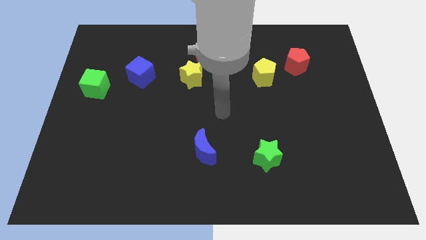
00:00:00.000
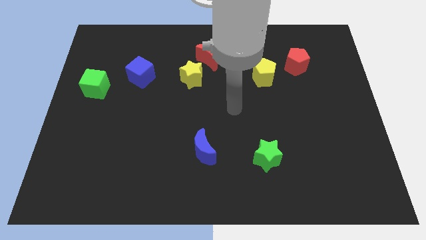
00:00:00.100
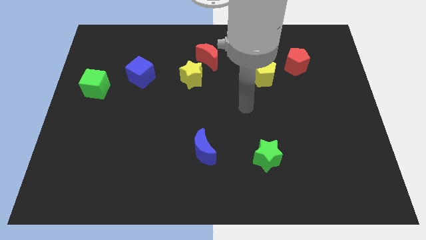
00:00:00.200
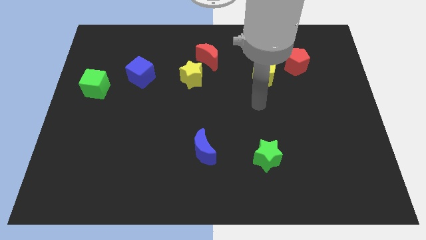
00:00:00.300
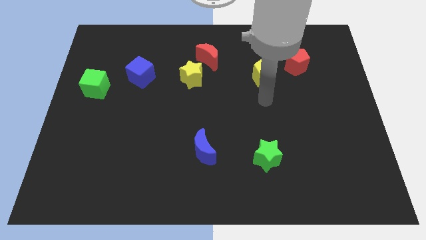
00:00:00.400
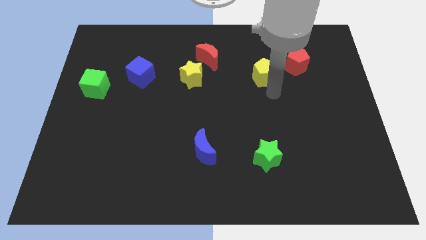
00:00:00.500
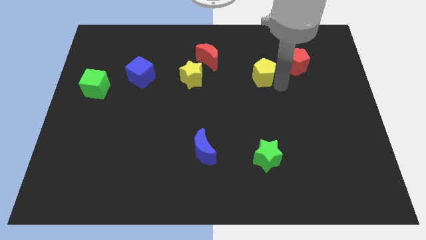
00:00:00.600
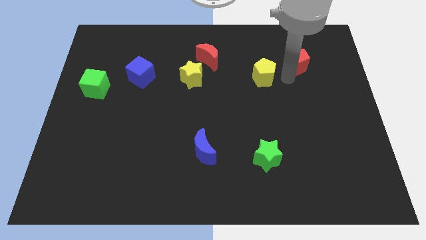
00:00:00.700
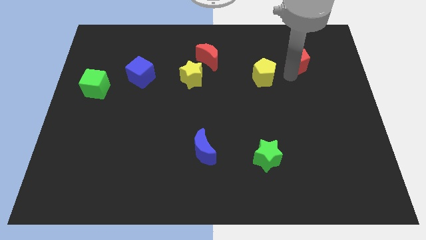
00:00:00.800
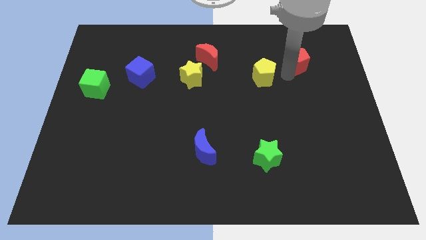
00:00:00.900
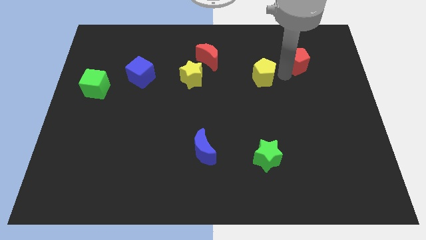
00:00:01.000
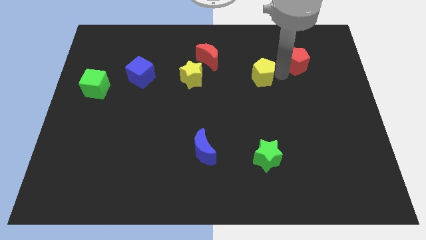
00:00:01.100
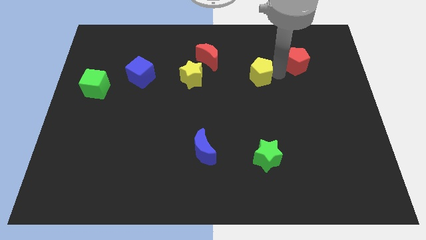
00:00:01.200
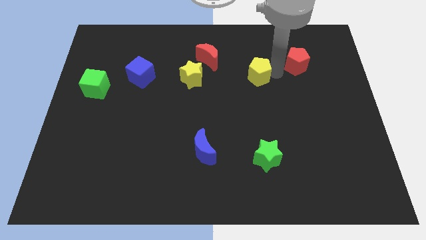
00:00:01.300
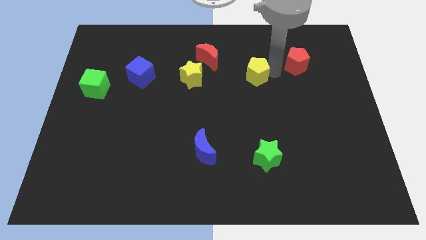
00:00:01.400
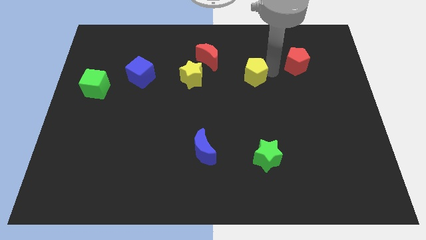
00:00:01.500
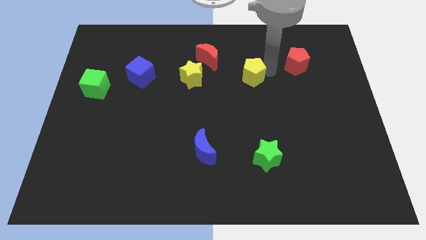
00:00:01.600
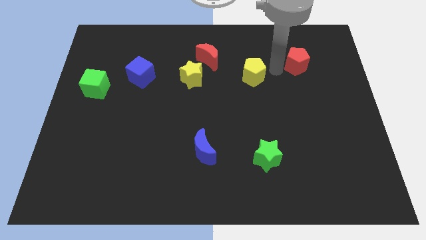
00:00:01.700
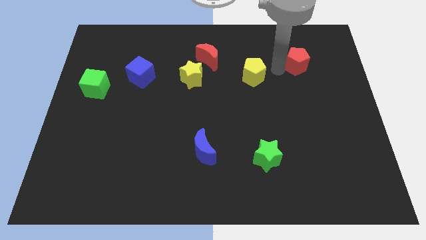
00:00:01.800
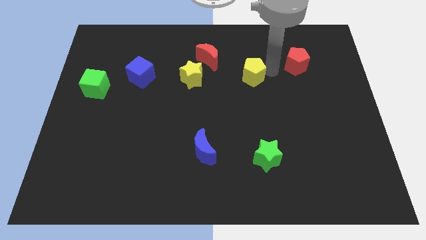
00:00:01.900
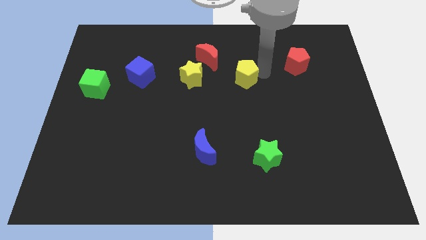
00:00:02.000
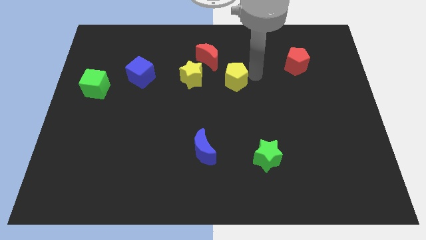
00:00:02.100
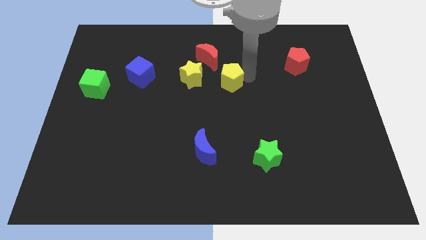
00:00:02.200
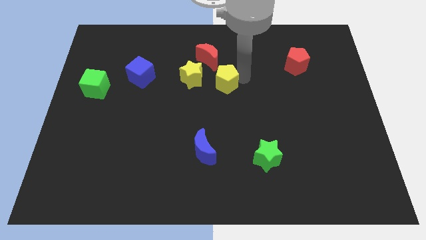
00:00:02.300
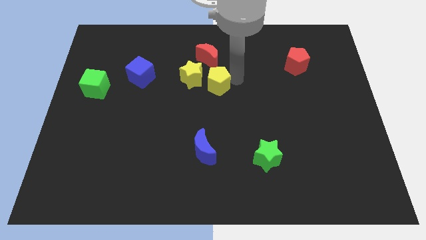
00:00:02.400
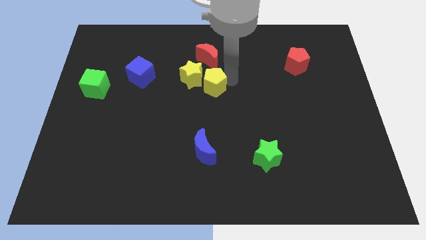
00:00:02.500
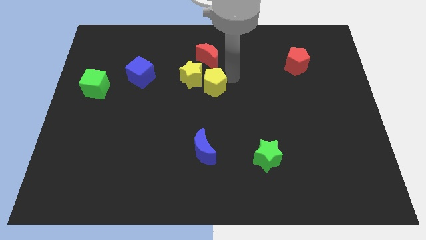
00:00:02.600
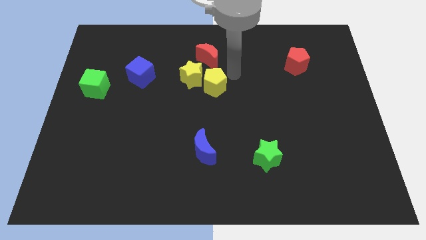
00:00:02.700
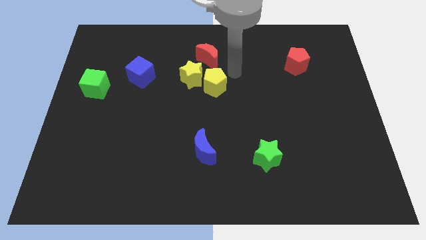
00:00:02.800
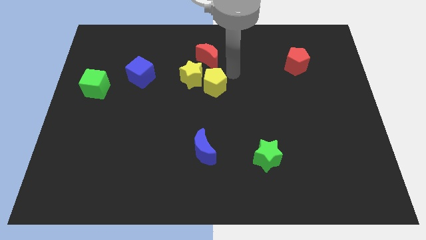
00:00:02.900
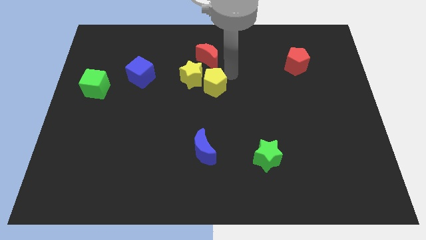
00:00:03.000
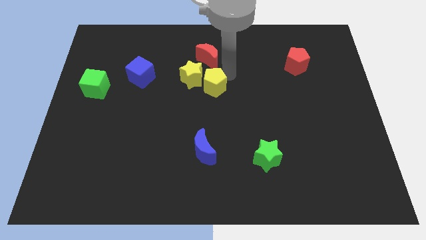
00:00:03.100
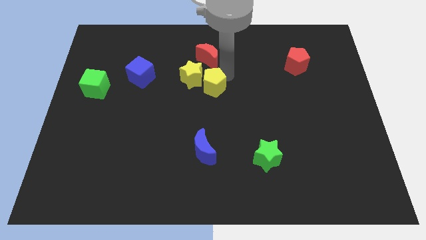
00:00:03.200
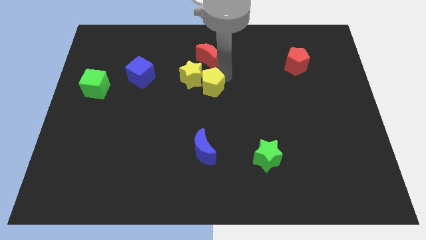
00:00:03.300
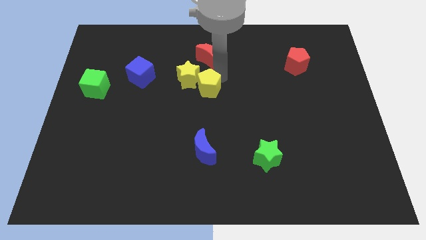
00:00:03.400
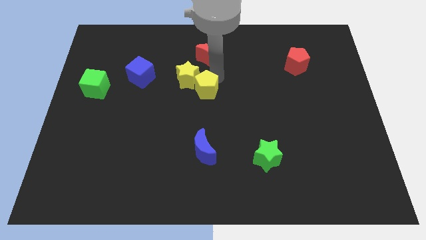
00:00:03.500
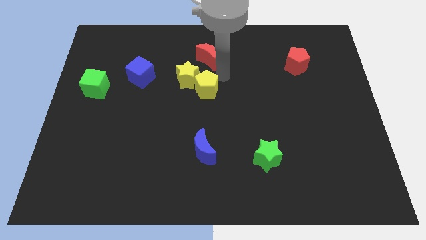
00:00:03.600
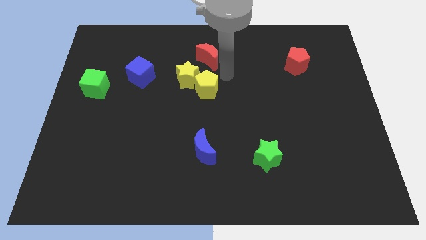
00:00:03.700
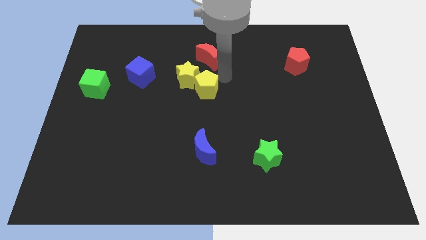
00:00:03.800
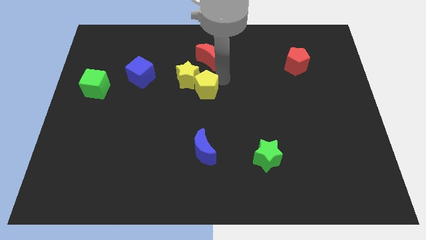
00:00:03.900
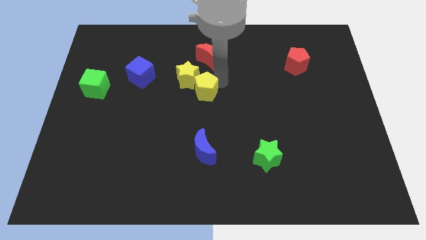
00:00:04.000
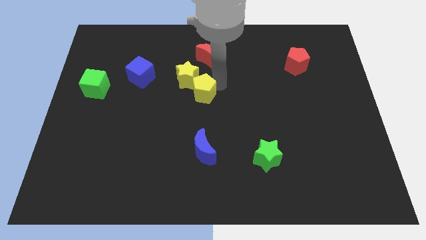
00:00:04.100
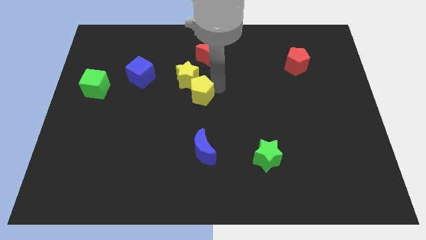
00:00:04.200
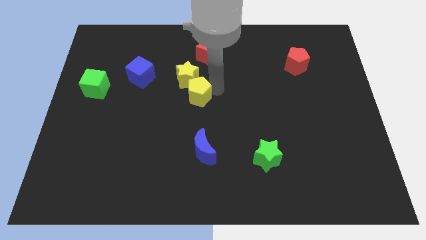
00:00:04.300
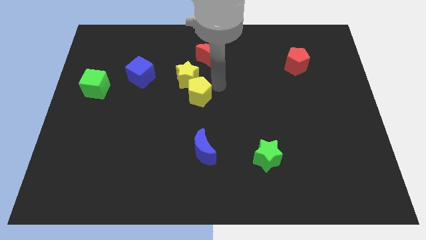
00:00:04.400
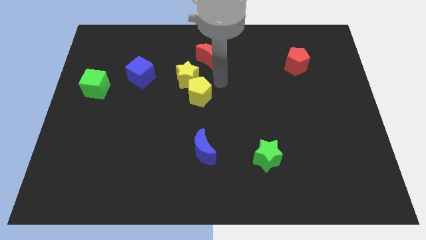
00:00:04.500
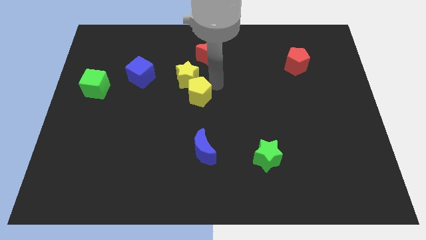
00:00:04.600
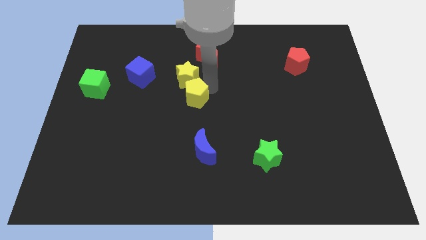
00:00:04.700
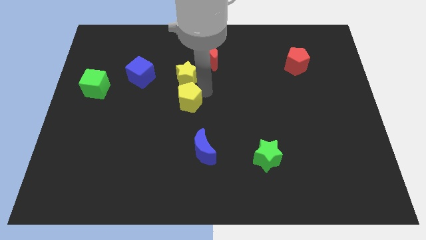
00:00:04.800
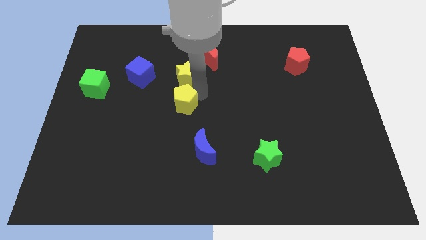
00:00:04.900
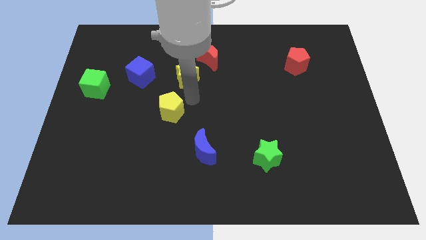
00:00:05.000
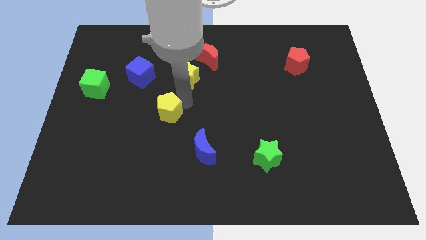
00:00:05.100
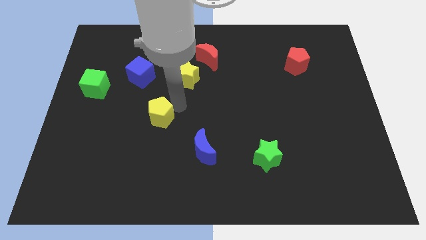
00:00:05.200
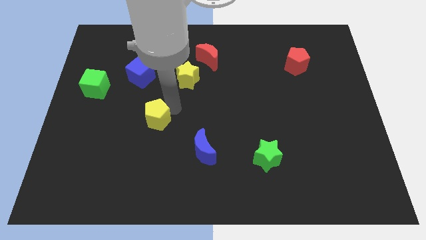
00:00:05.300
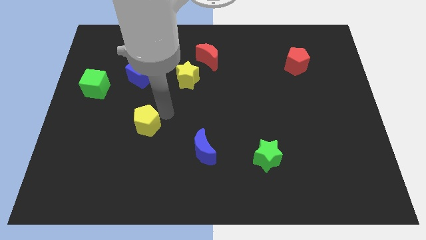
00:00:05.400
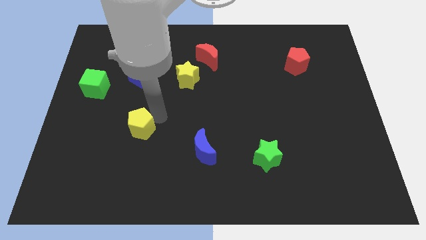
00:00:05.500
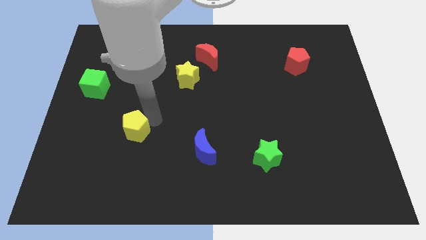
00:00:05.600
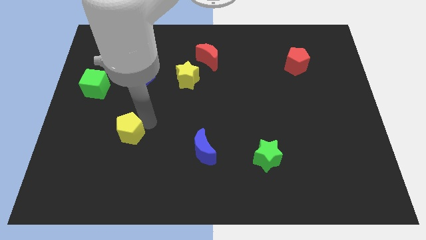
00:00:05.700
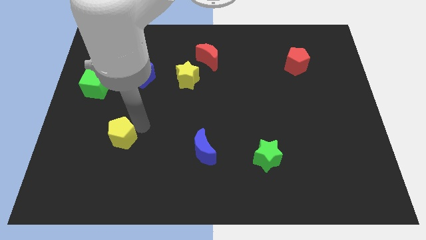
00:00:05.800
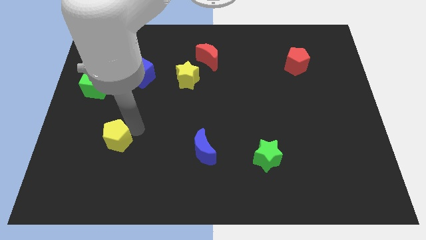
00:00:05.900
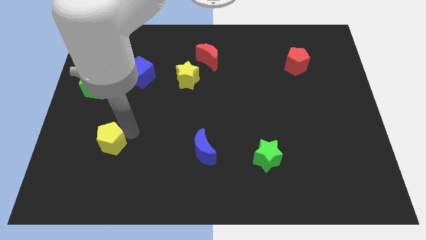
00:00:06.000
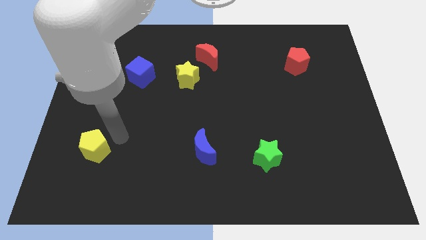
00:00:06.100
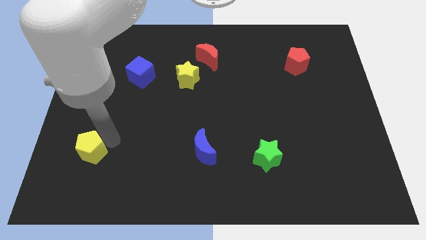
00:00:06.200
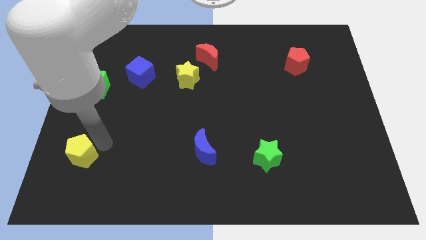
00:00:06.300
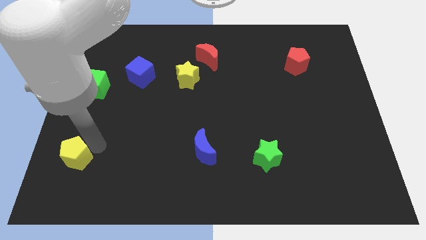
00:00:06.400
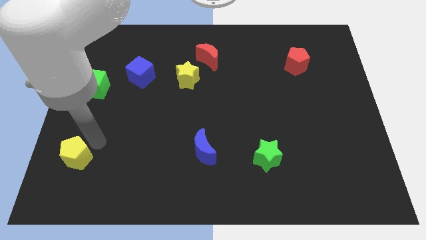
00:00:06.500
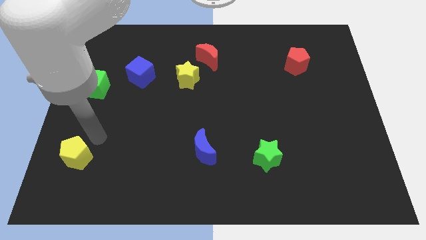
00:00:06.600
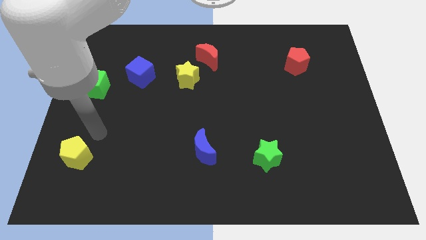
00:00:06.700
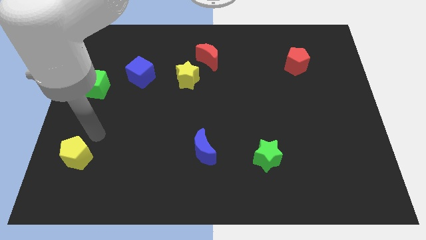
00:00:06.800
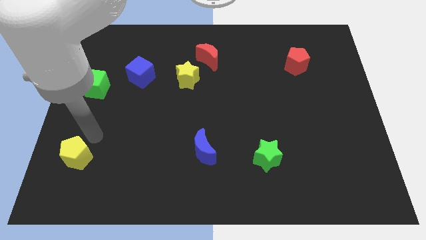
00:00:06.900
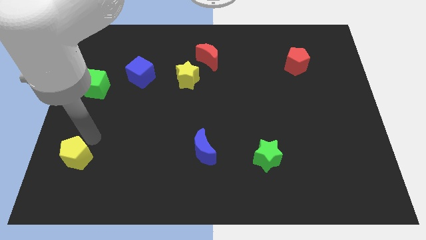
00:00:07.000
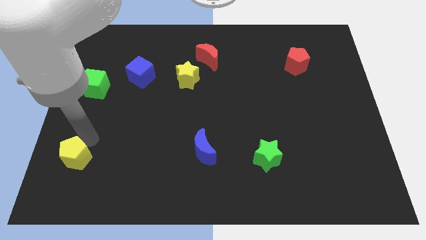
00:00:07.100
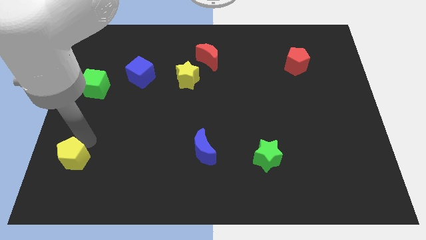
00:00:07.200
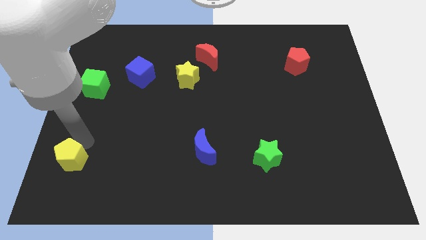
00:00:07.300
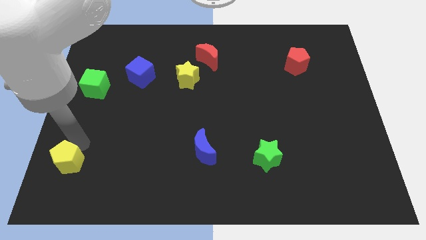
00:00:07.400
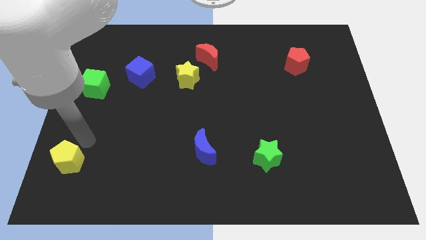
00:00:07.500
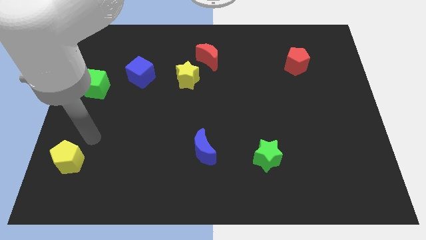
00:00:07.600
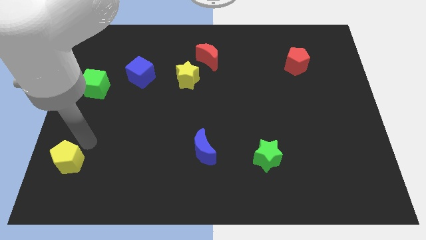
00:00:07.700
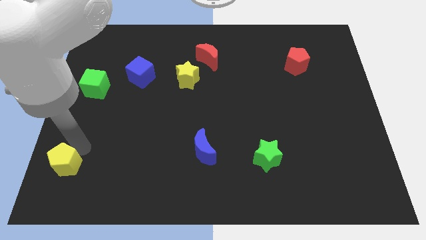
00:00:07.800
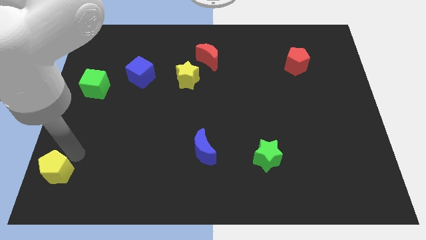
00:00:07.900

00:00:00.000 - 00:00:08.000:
push the yellow pentagon to the lower left corner

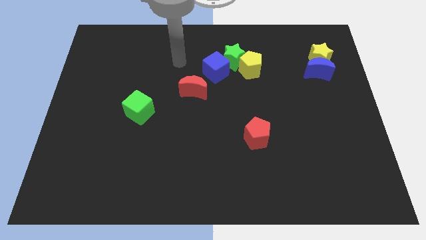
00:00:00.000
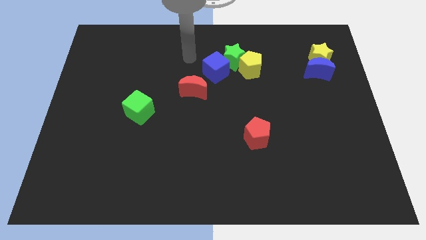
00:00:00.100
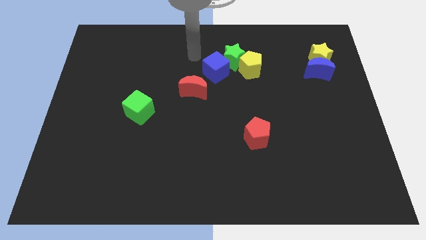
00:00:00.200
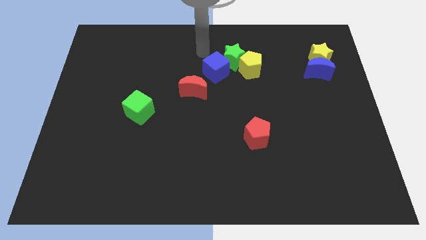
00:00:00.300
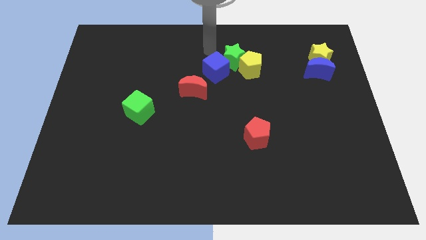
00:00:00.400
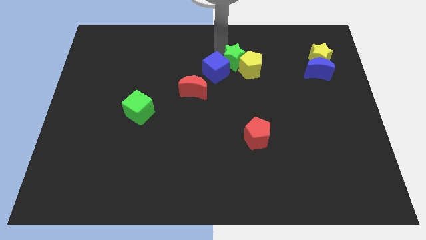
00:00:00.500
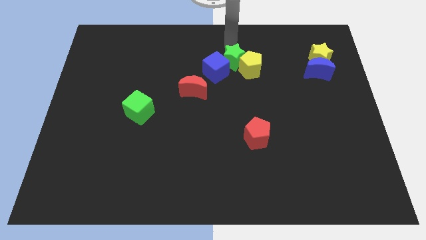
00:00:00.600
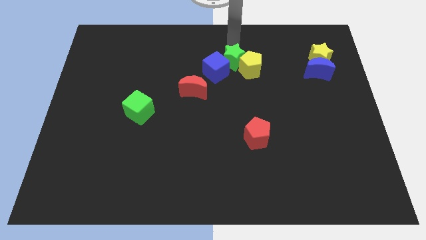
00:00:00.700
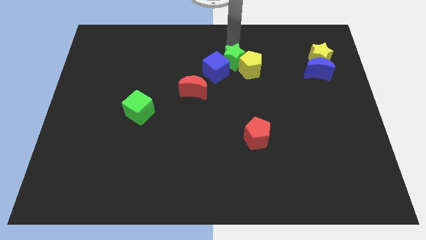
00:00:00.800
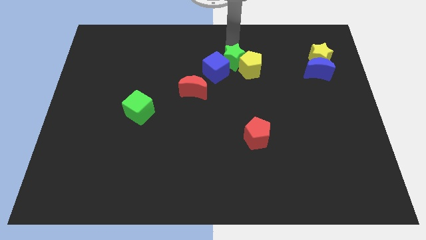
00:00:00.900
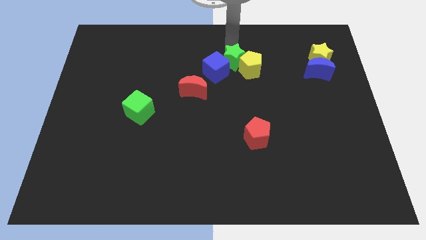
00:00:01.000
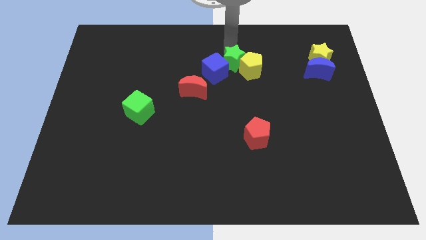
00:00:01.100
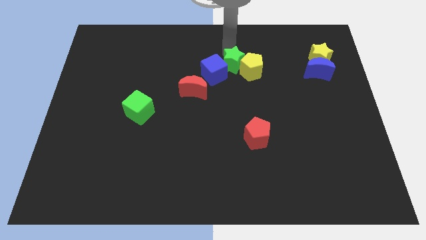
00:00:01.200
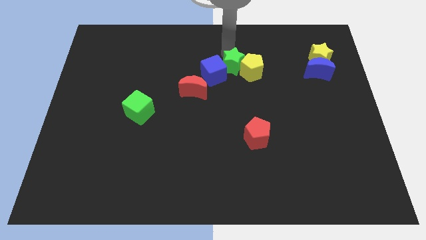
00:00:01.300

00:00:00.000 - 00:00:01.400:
push the green star to the center of the board
